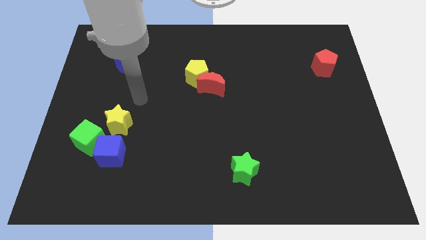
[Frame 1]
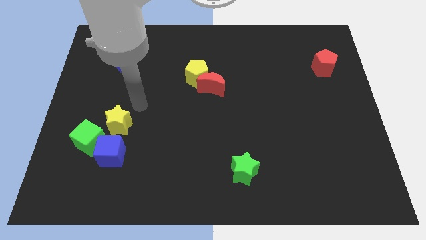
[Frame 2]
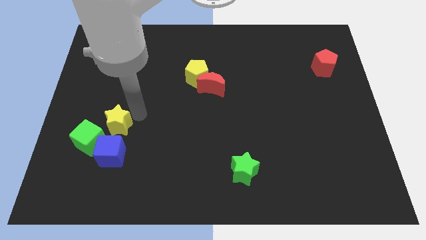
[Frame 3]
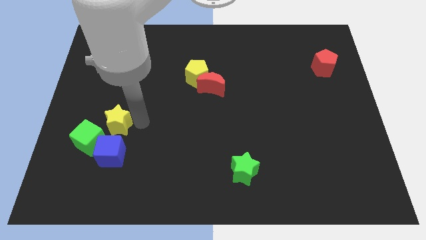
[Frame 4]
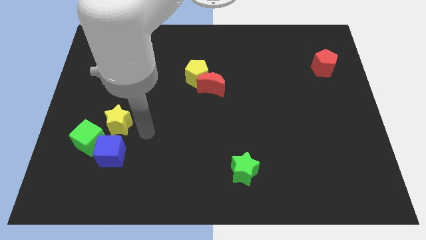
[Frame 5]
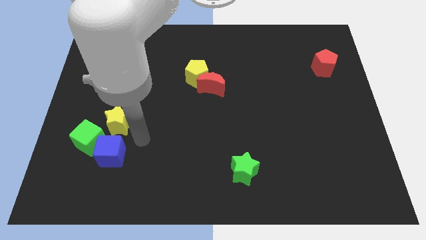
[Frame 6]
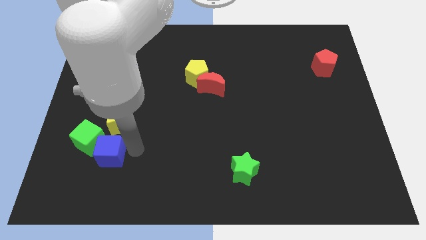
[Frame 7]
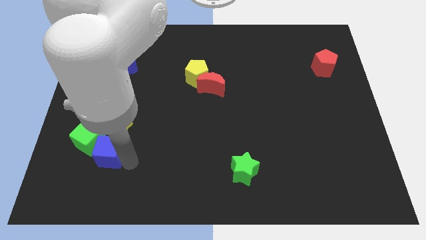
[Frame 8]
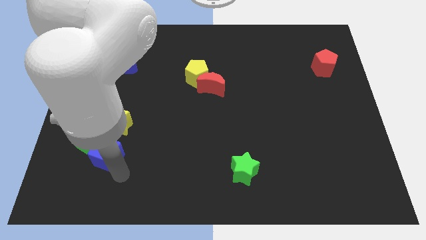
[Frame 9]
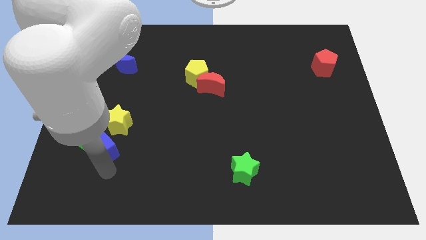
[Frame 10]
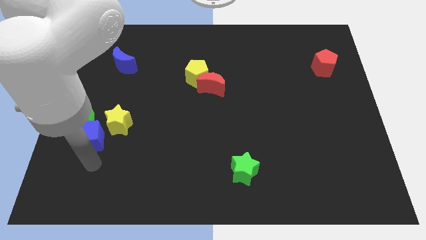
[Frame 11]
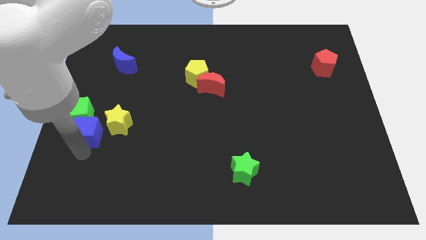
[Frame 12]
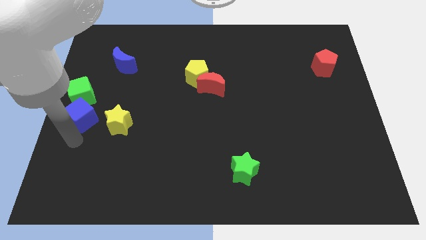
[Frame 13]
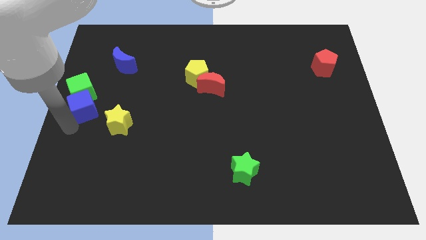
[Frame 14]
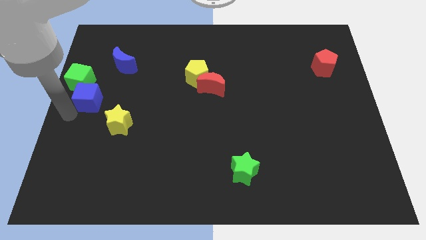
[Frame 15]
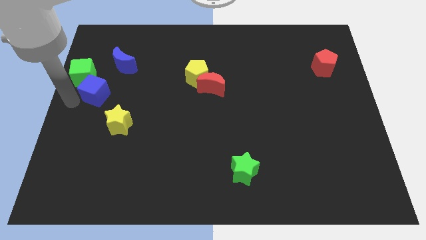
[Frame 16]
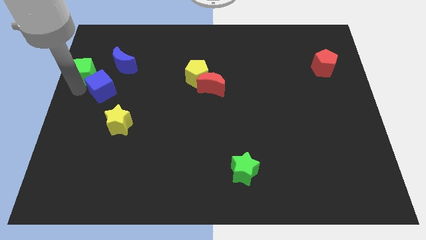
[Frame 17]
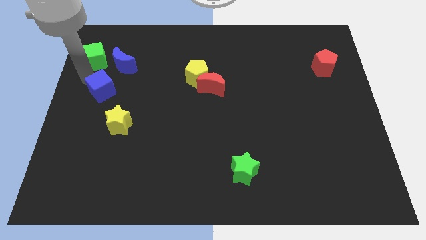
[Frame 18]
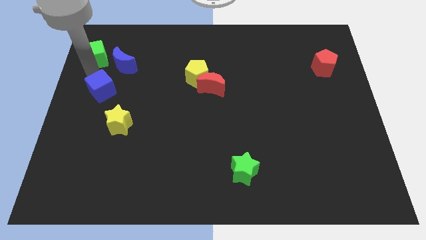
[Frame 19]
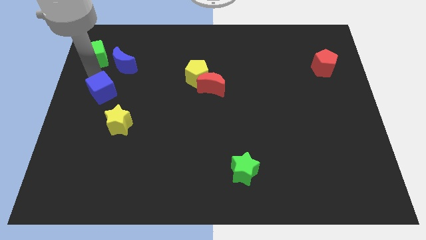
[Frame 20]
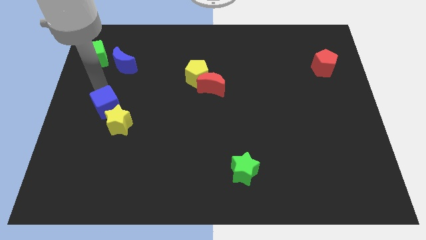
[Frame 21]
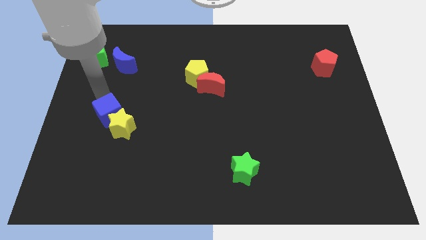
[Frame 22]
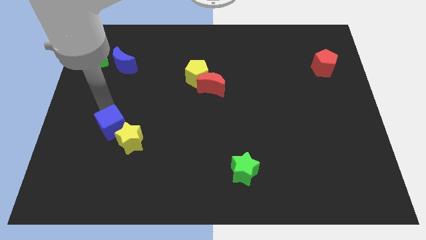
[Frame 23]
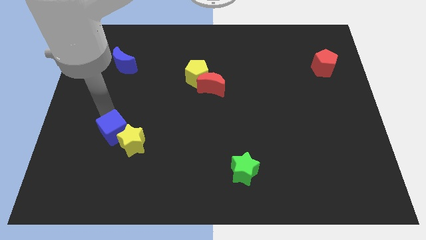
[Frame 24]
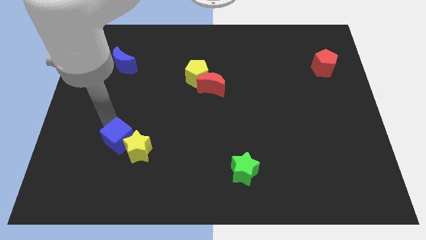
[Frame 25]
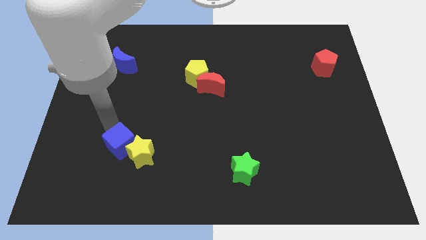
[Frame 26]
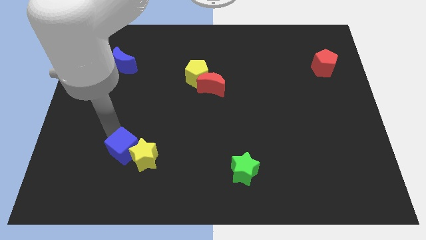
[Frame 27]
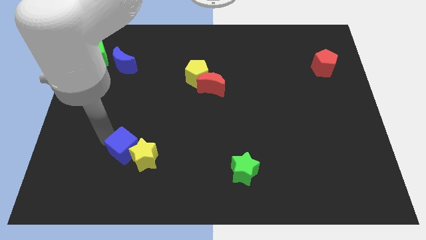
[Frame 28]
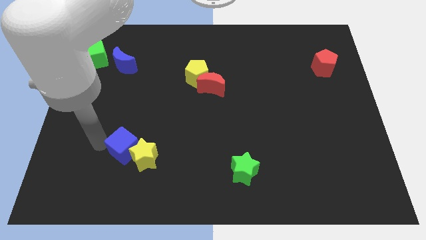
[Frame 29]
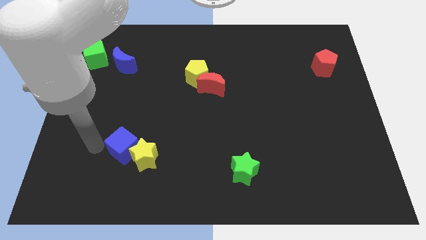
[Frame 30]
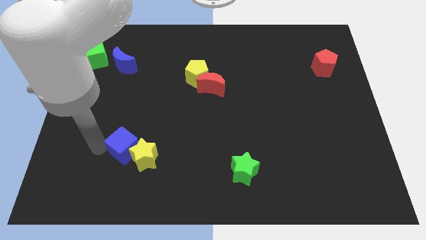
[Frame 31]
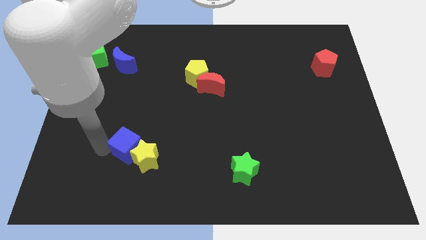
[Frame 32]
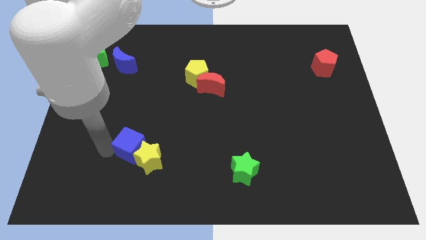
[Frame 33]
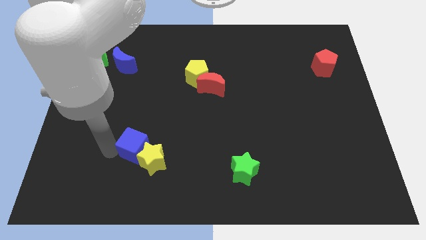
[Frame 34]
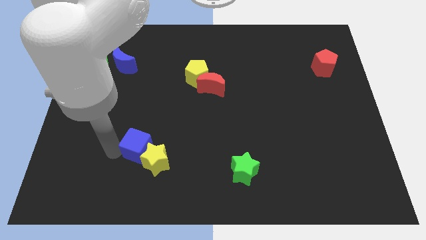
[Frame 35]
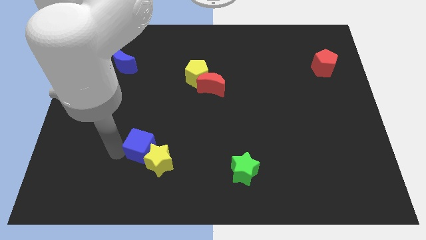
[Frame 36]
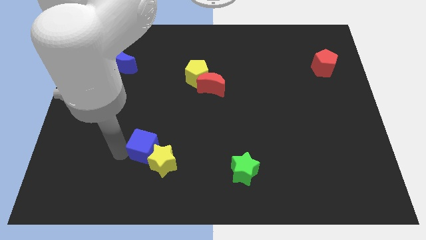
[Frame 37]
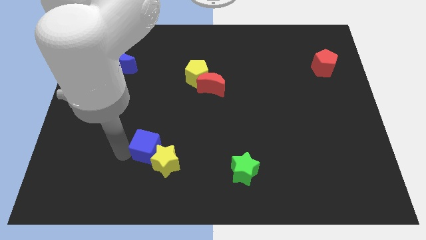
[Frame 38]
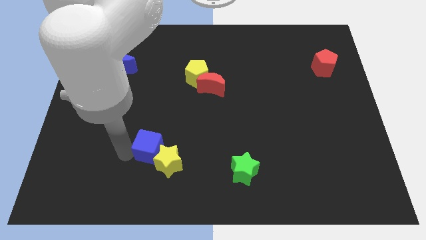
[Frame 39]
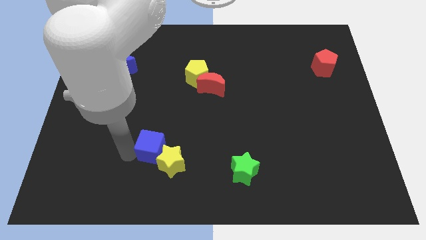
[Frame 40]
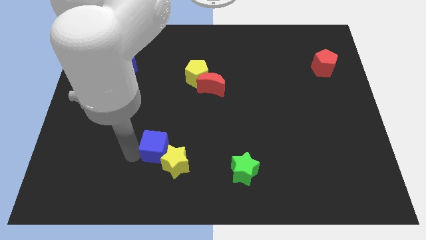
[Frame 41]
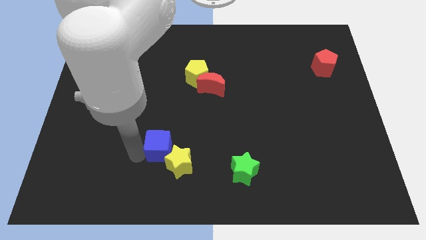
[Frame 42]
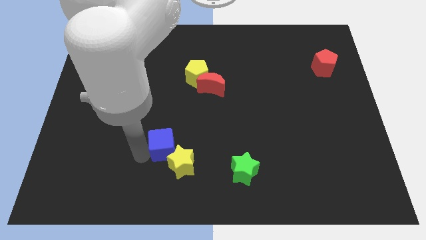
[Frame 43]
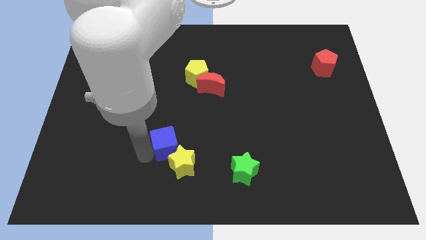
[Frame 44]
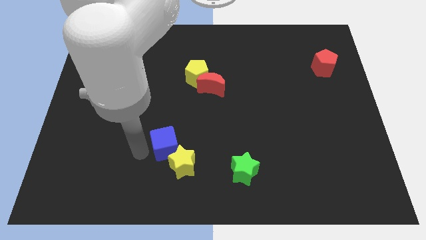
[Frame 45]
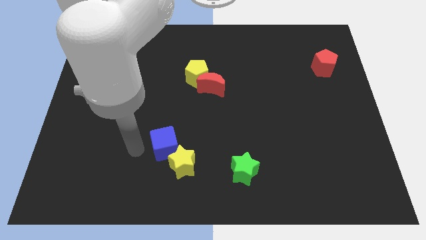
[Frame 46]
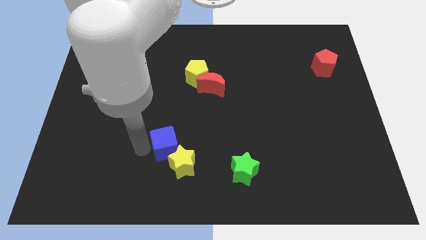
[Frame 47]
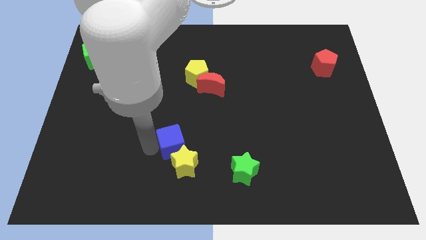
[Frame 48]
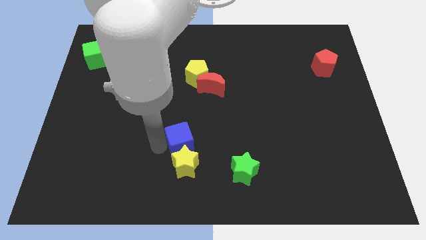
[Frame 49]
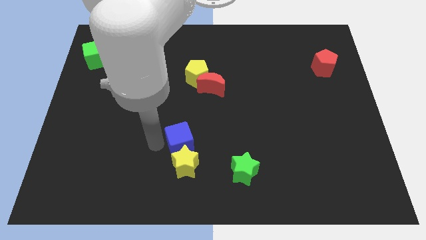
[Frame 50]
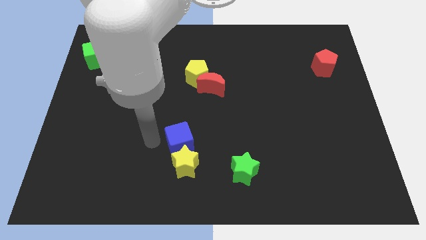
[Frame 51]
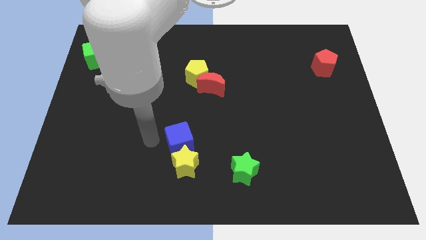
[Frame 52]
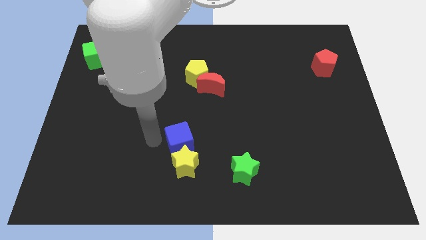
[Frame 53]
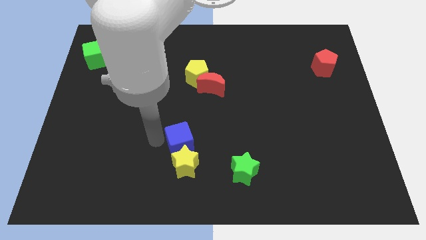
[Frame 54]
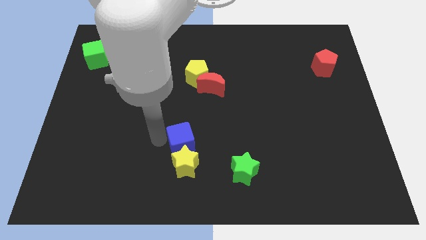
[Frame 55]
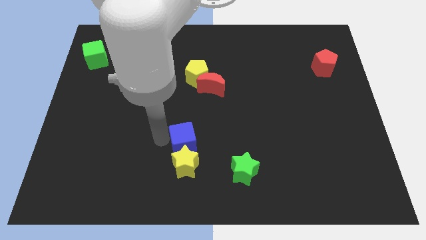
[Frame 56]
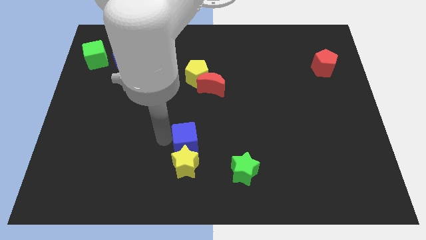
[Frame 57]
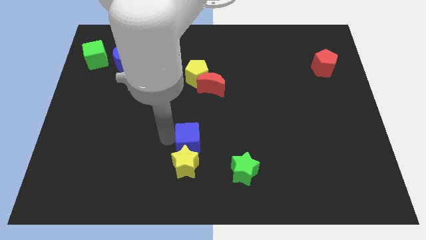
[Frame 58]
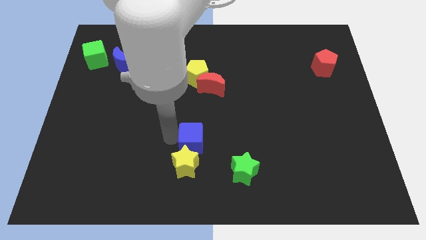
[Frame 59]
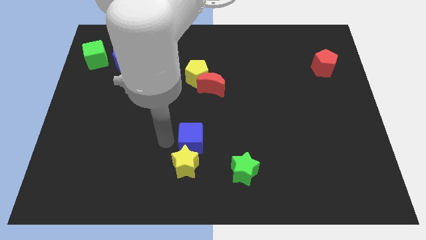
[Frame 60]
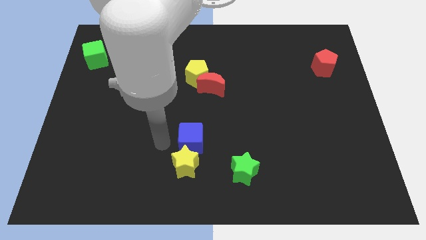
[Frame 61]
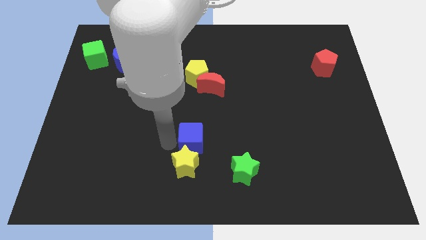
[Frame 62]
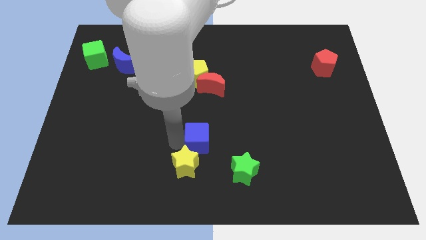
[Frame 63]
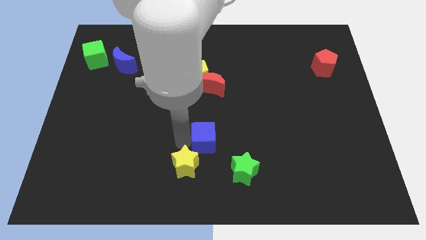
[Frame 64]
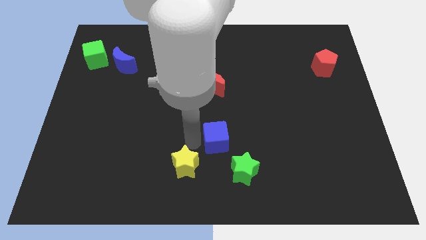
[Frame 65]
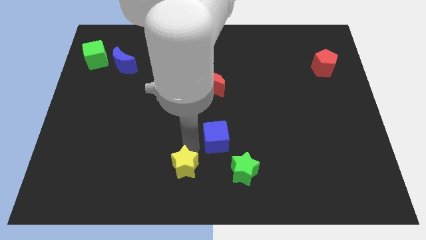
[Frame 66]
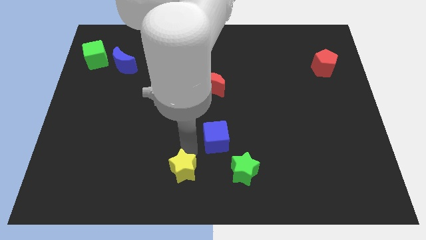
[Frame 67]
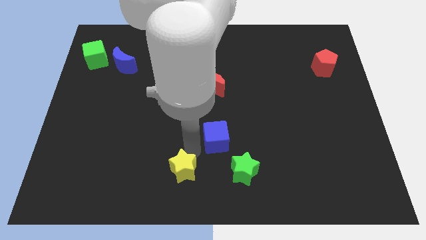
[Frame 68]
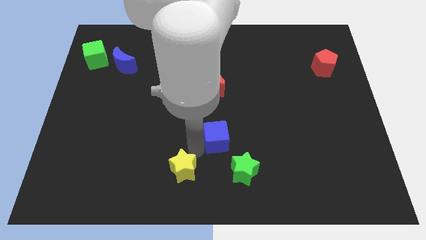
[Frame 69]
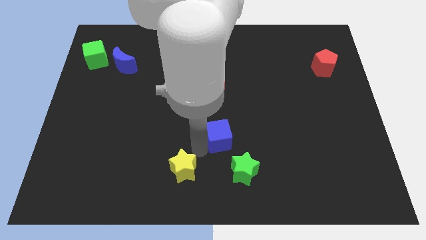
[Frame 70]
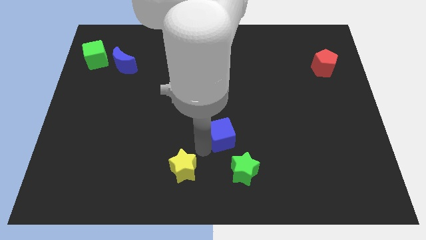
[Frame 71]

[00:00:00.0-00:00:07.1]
put the blue cube above the green star
